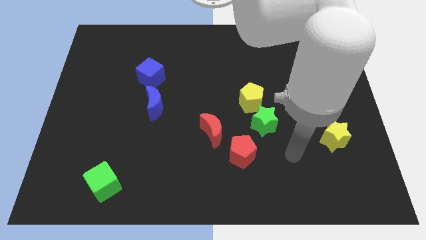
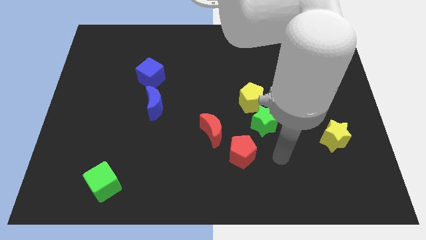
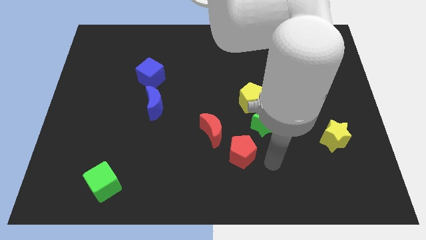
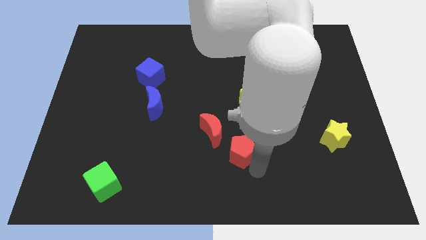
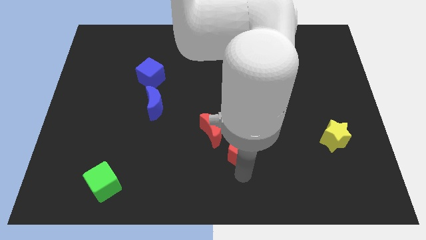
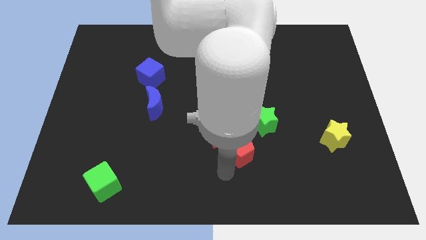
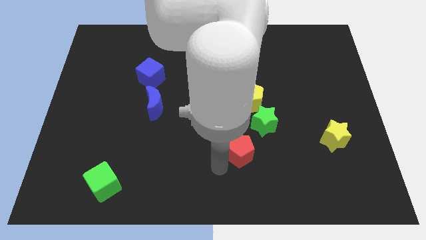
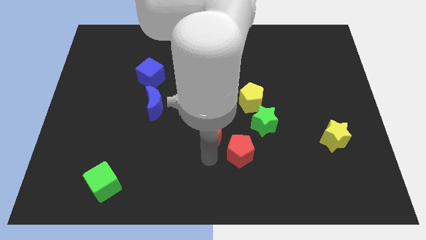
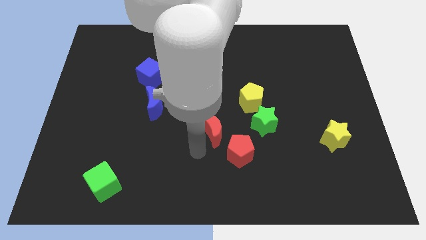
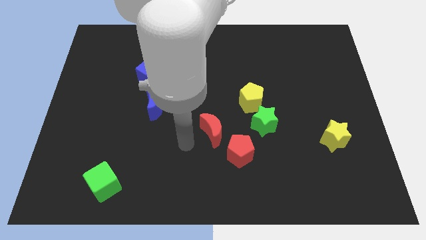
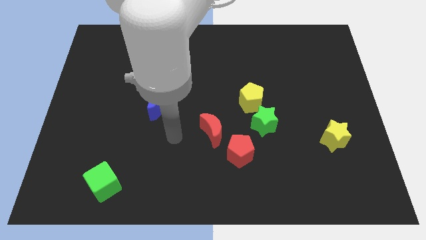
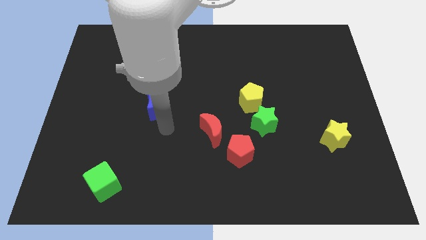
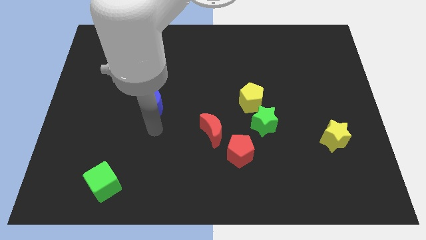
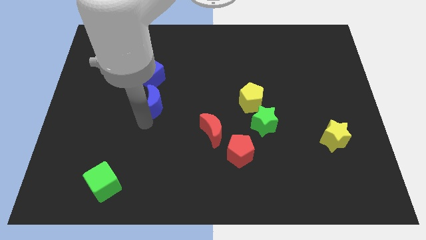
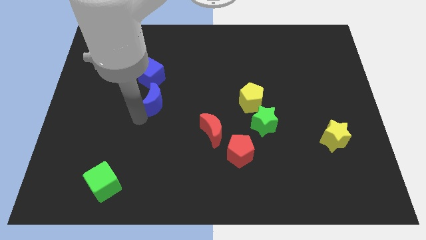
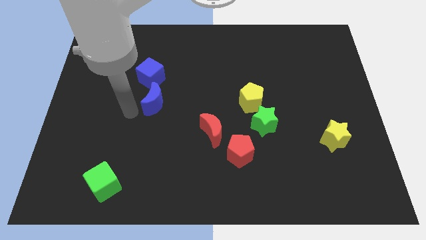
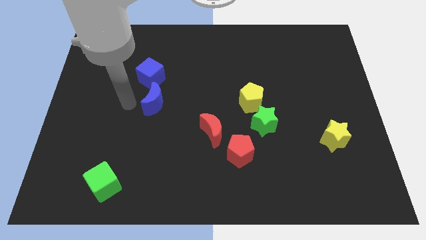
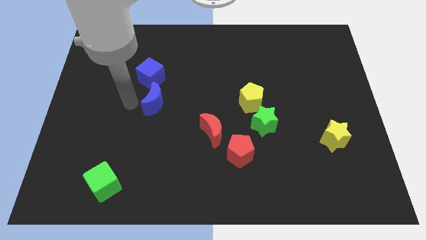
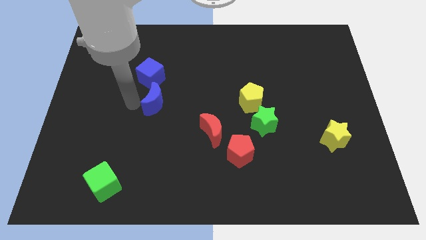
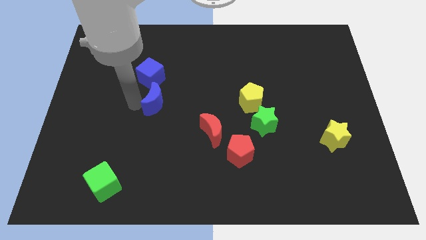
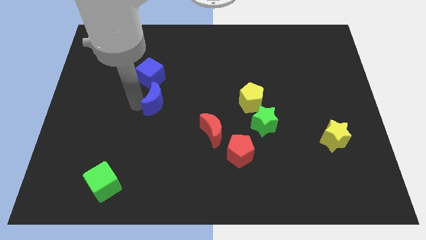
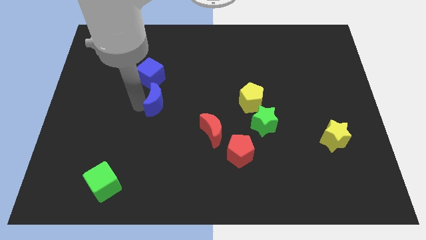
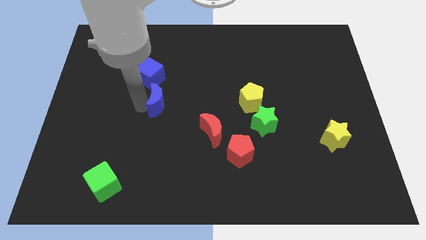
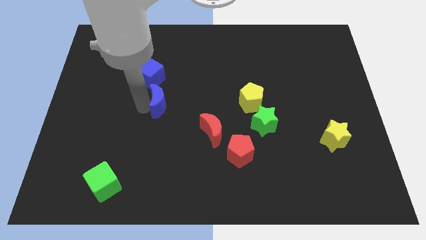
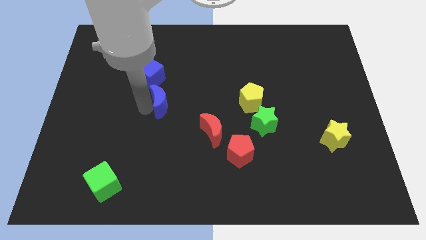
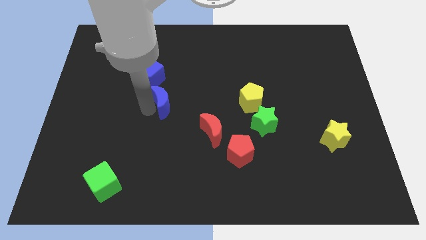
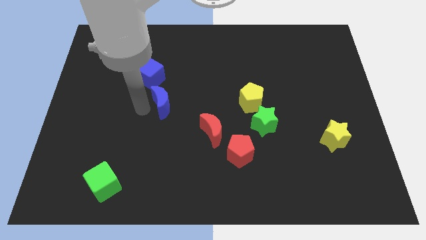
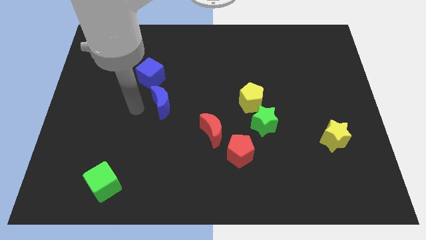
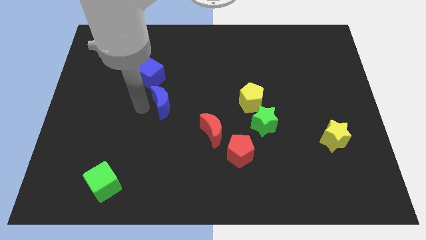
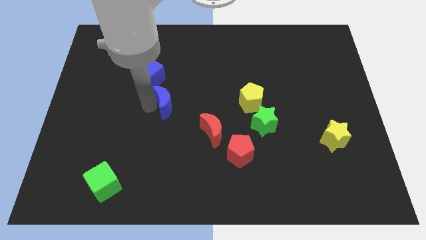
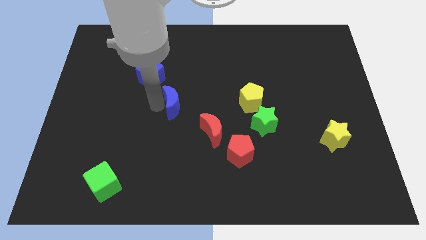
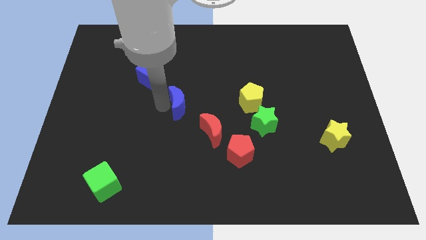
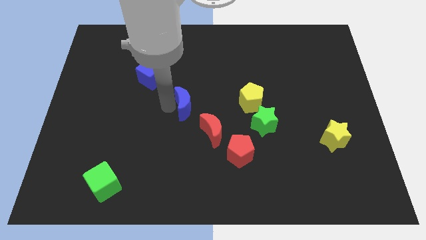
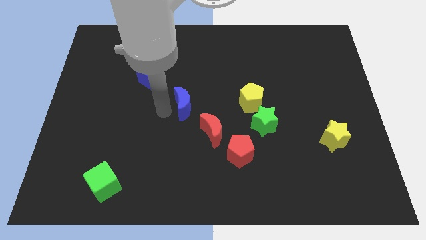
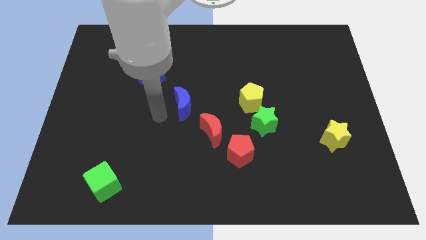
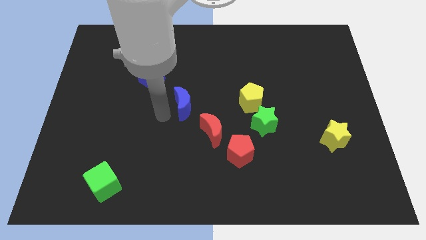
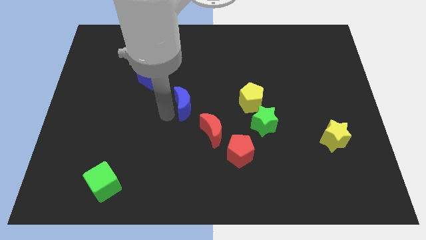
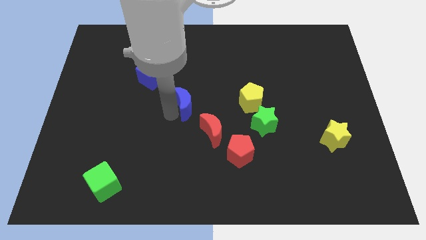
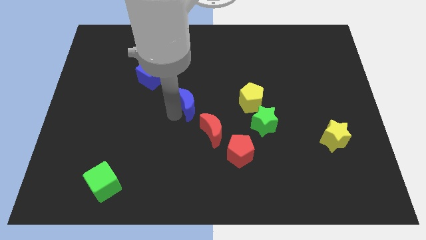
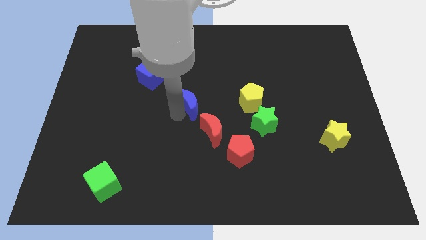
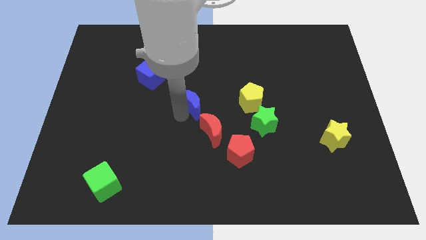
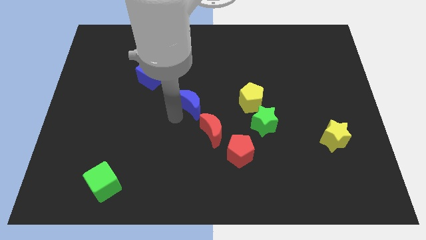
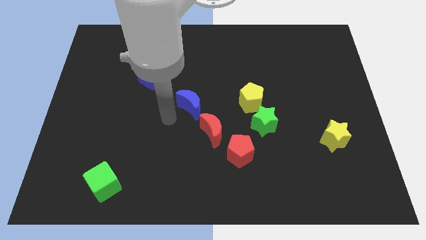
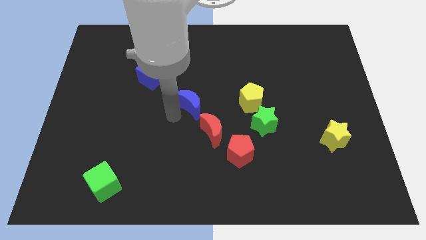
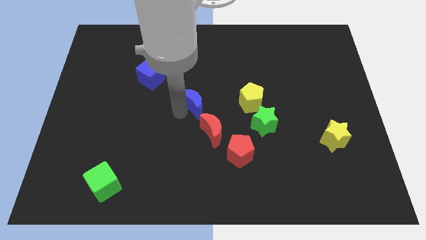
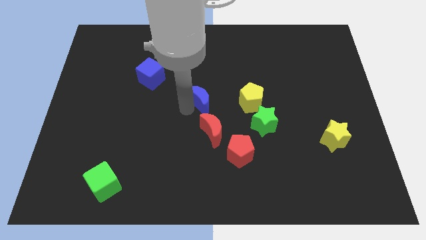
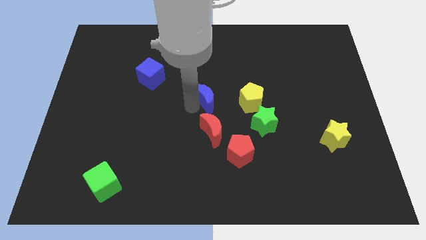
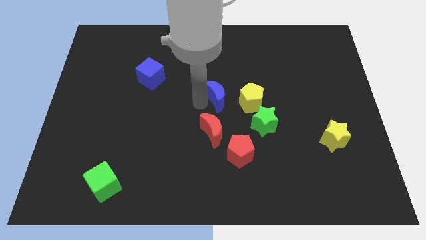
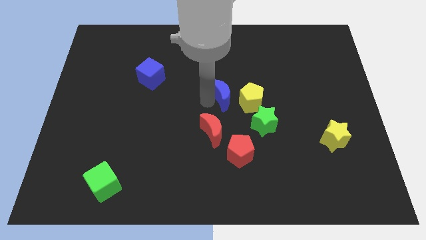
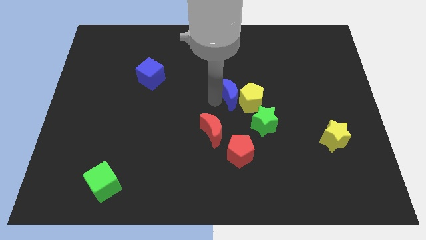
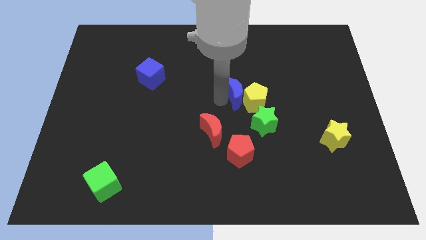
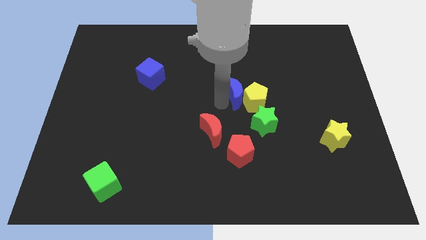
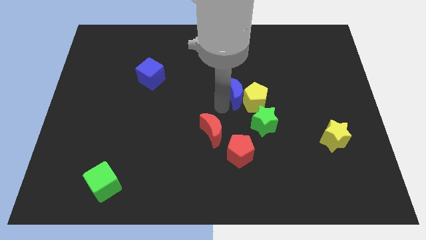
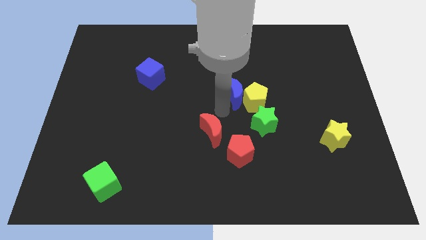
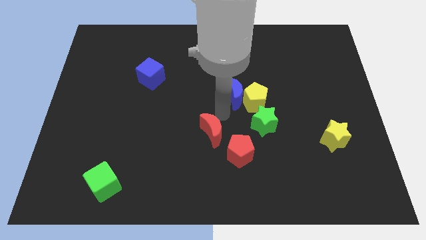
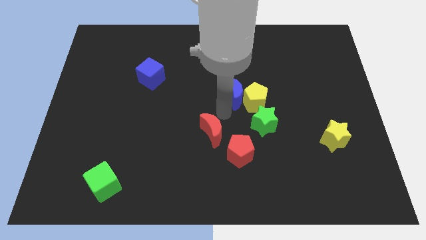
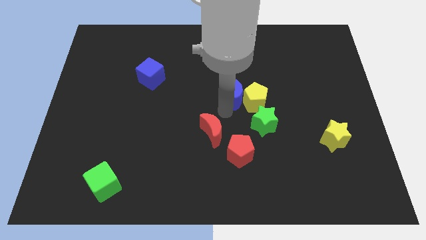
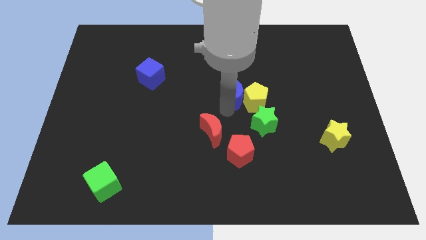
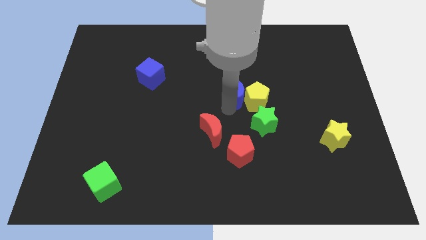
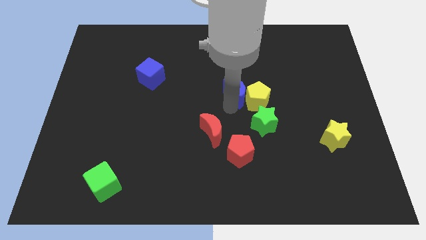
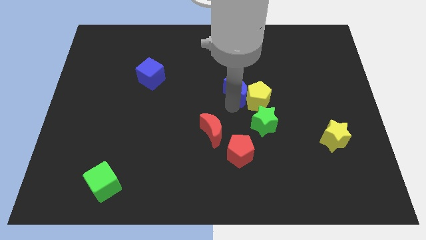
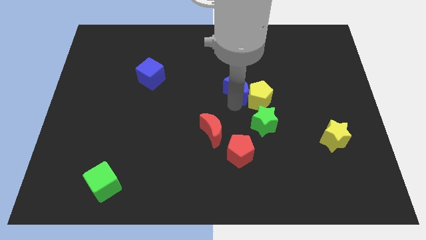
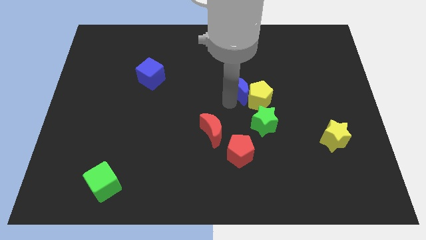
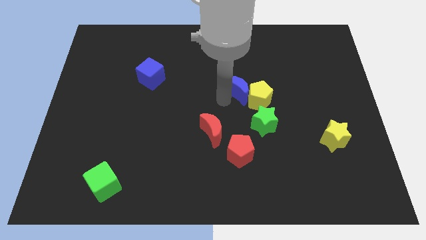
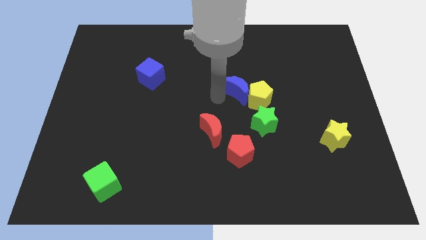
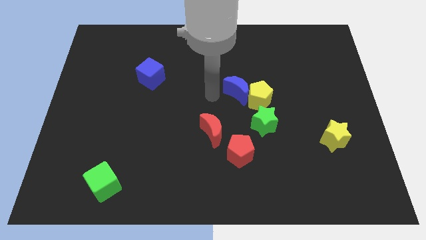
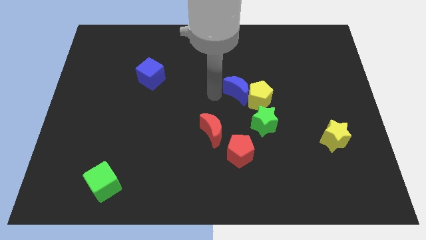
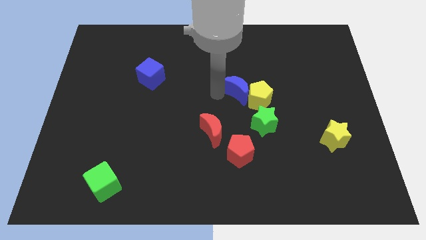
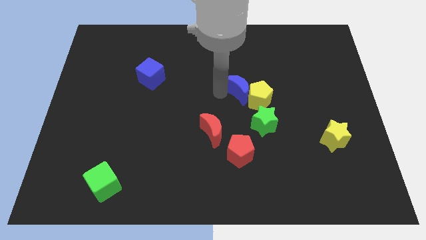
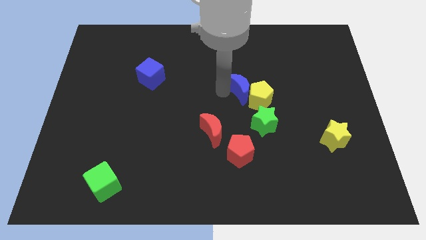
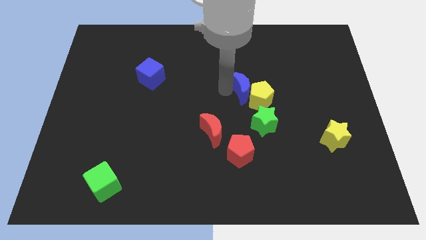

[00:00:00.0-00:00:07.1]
slide the blue moon to the right

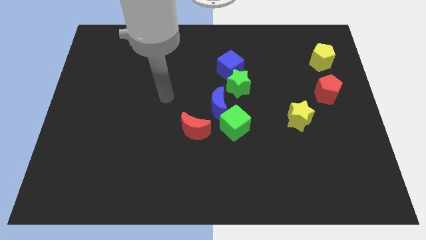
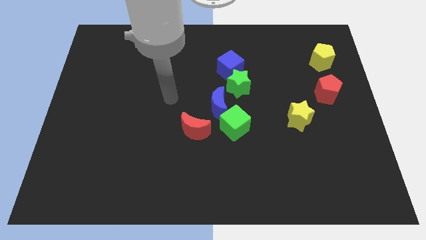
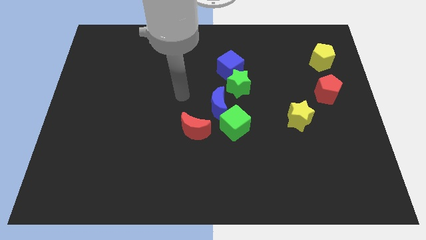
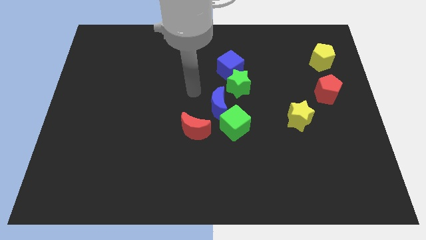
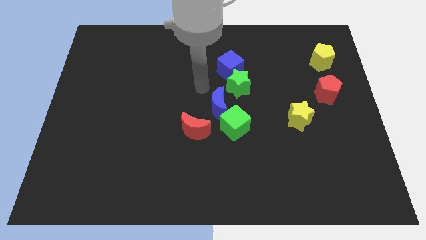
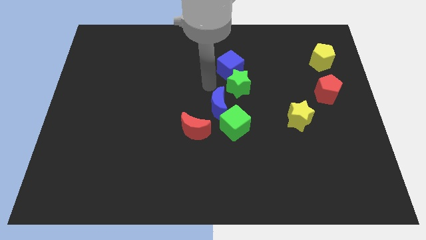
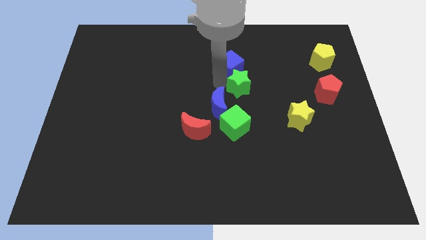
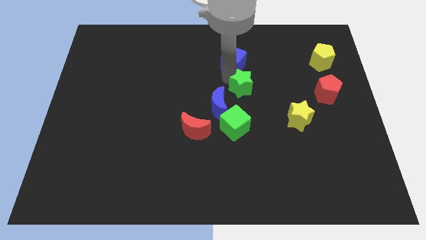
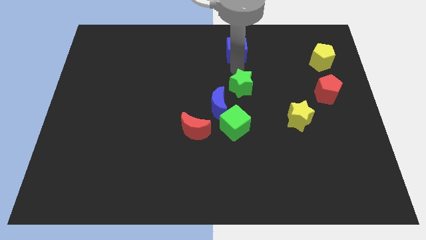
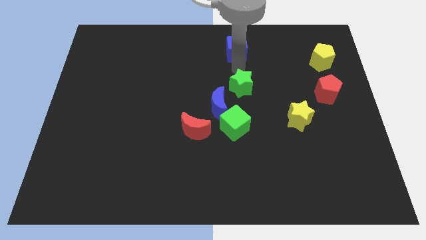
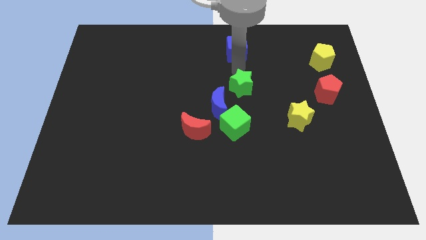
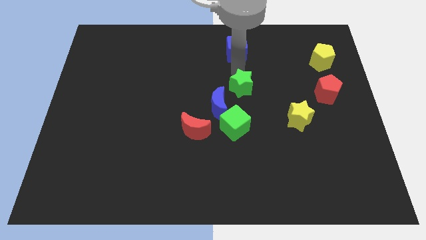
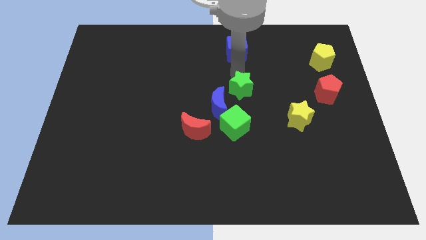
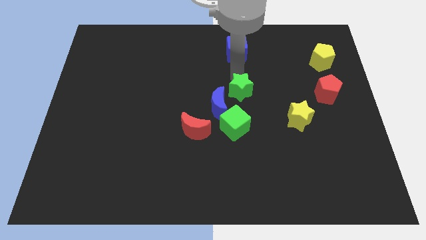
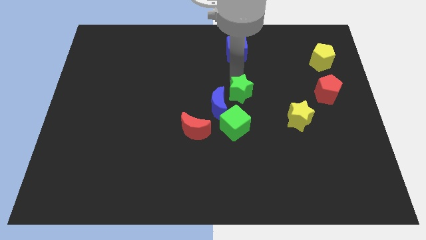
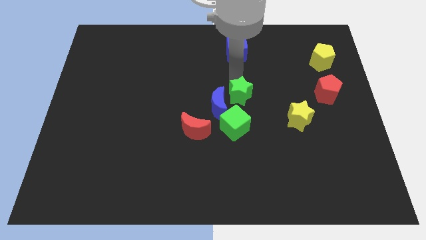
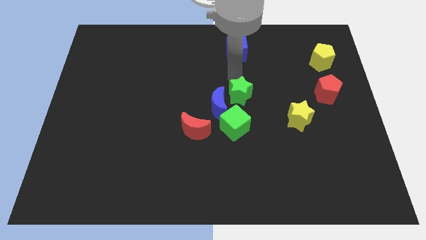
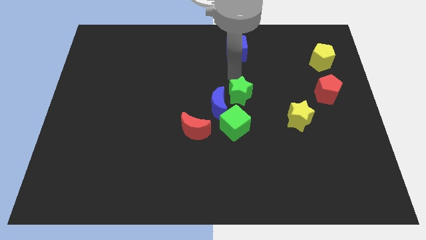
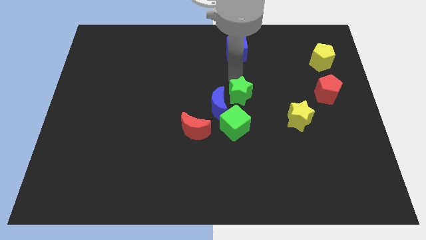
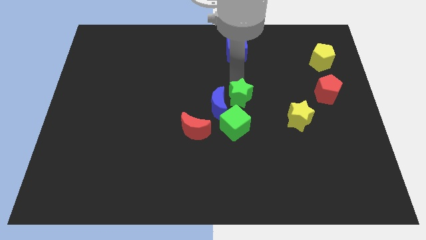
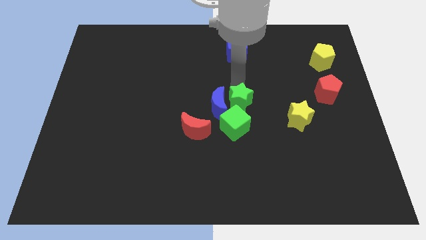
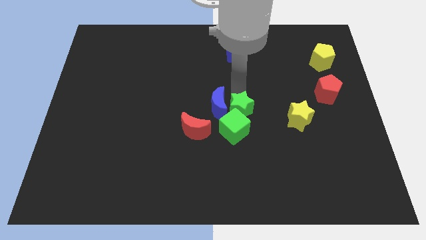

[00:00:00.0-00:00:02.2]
slightly slide the green star downwards
